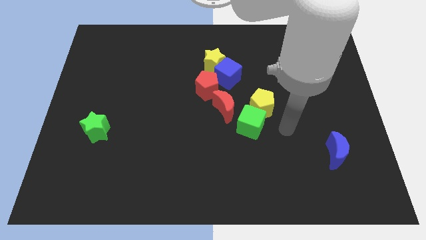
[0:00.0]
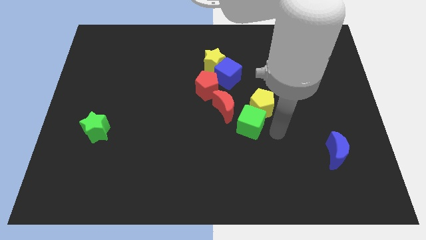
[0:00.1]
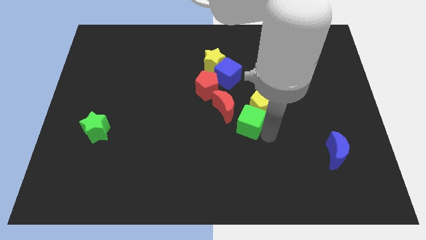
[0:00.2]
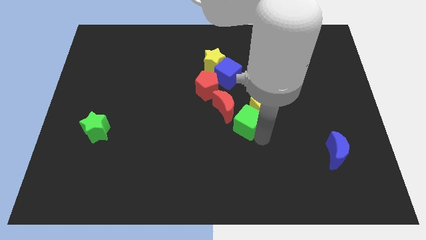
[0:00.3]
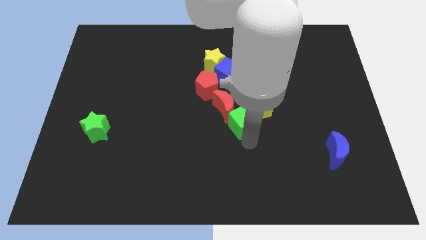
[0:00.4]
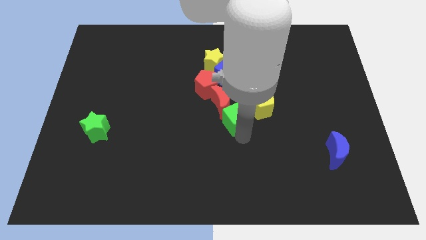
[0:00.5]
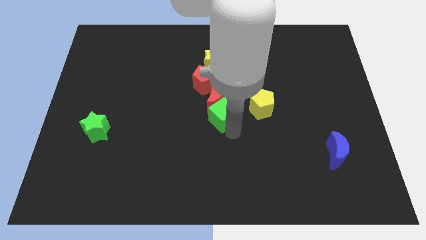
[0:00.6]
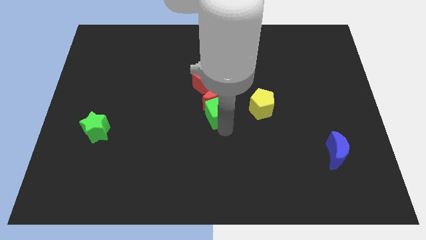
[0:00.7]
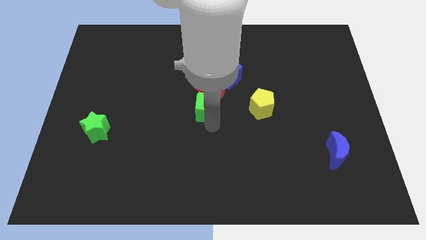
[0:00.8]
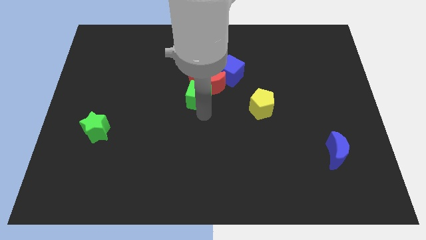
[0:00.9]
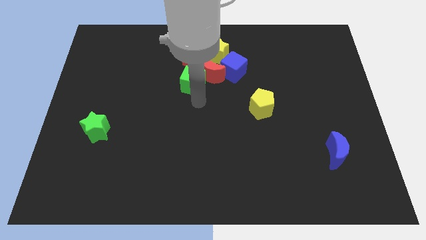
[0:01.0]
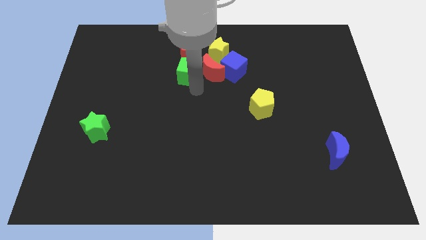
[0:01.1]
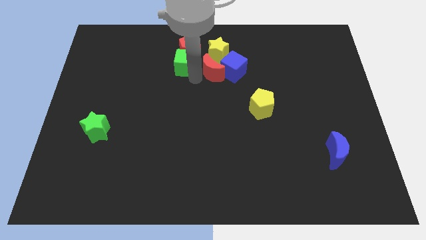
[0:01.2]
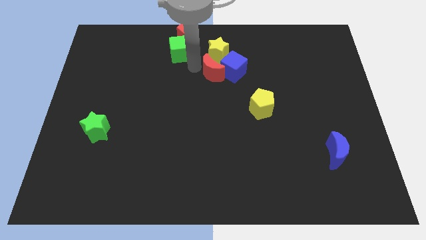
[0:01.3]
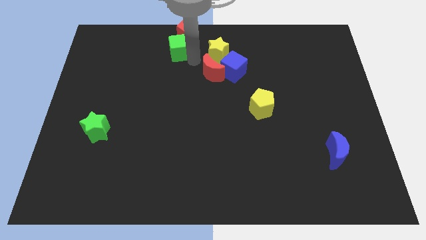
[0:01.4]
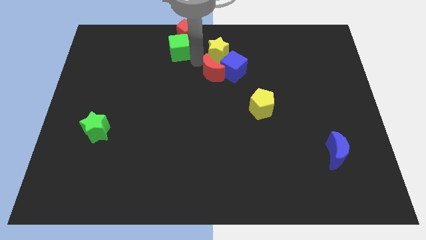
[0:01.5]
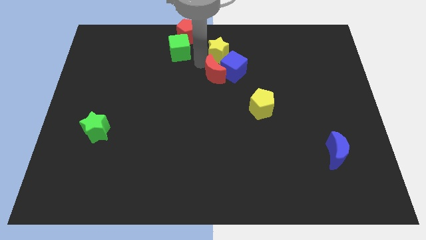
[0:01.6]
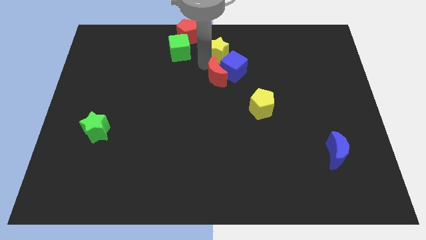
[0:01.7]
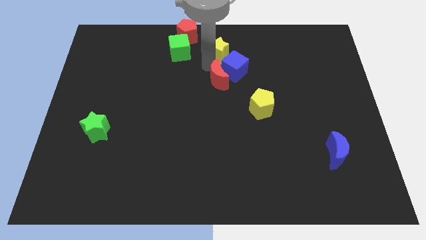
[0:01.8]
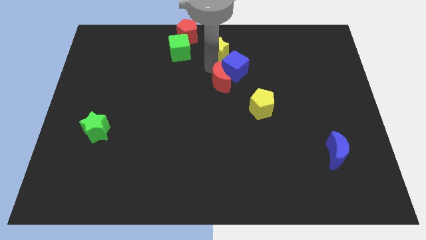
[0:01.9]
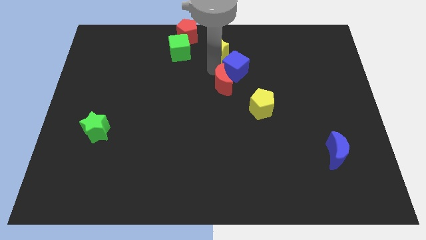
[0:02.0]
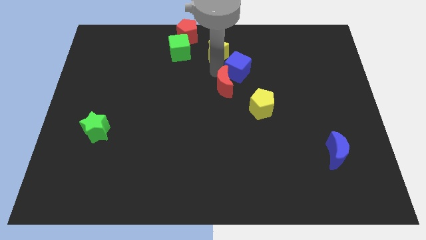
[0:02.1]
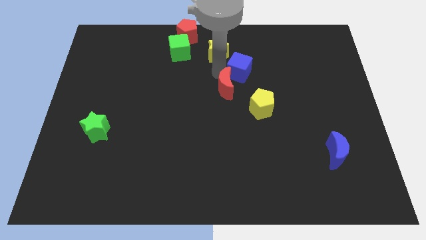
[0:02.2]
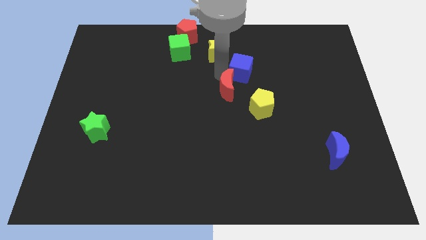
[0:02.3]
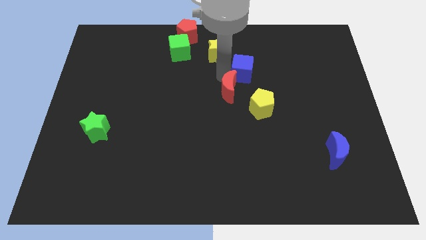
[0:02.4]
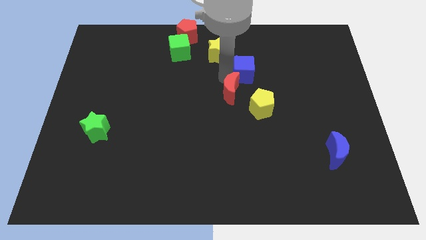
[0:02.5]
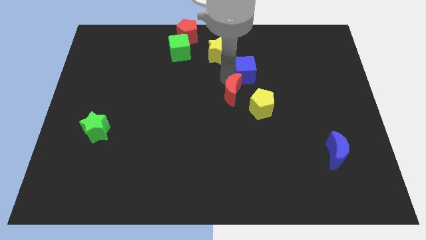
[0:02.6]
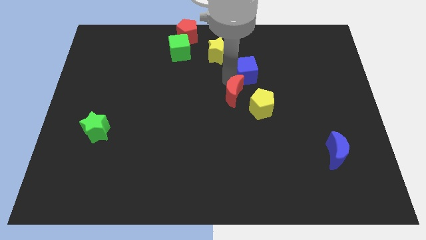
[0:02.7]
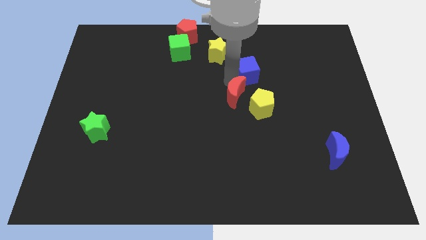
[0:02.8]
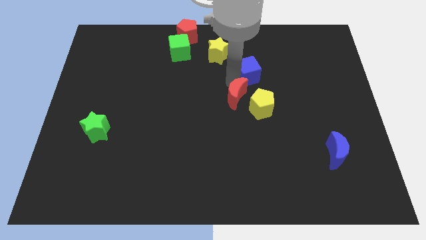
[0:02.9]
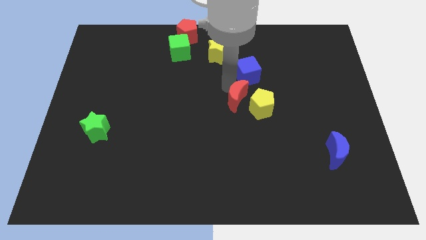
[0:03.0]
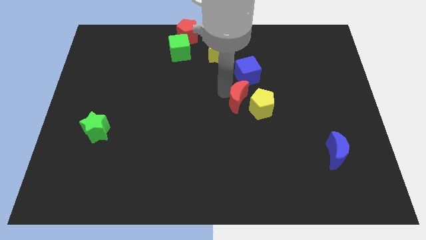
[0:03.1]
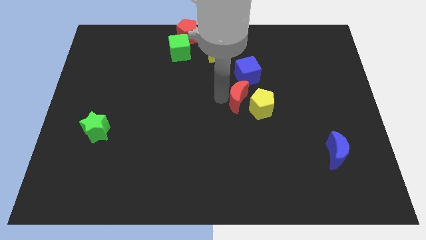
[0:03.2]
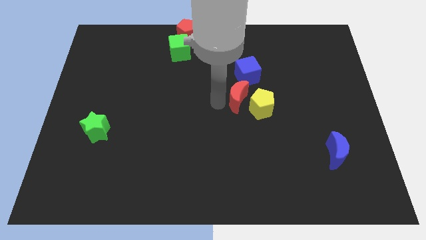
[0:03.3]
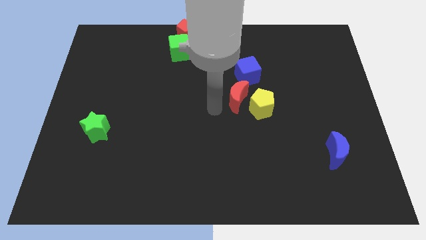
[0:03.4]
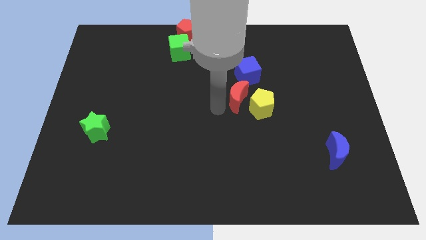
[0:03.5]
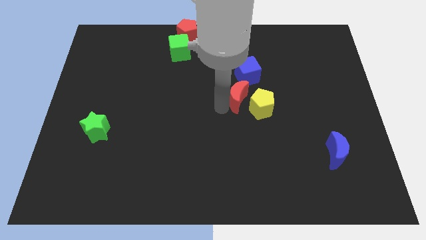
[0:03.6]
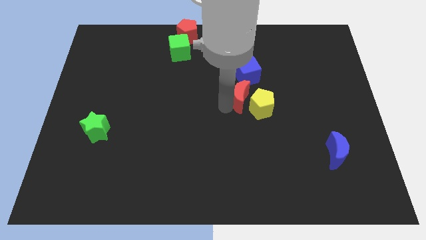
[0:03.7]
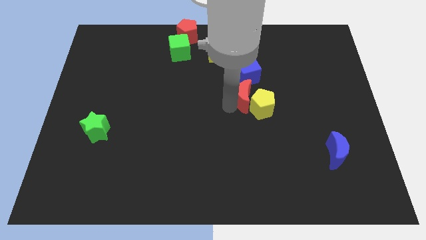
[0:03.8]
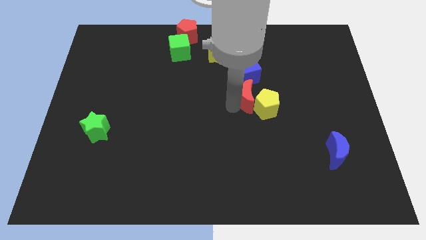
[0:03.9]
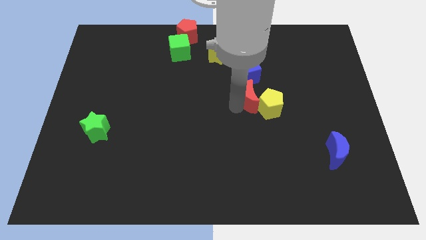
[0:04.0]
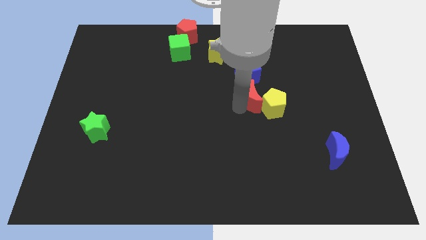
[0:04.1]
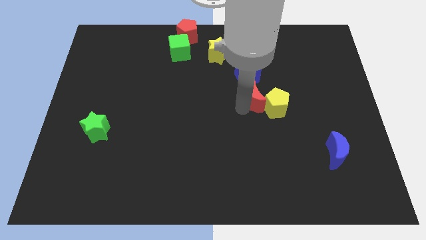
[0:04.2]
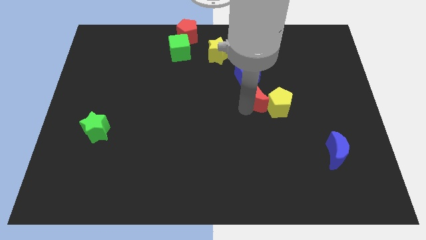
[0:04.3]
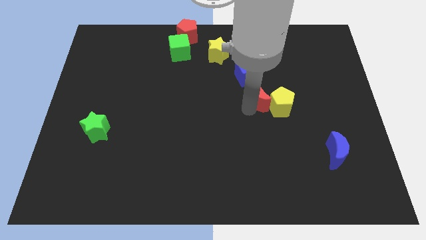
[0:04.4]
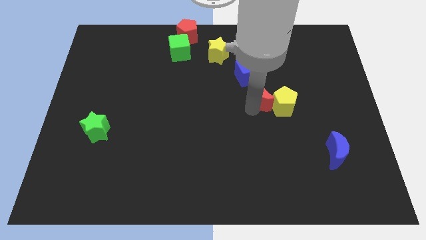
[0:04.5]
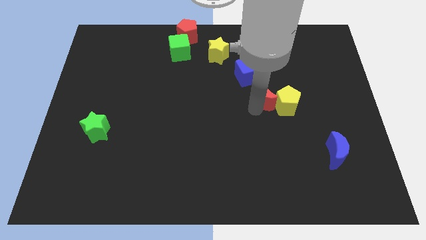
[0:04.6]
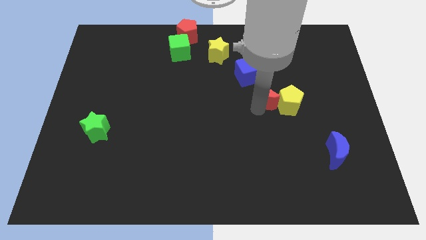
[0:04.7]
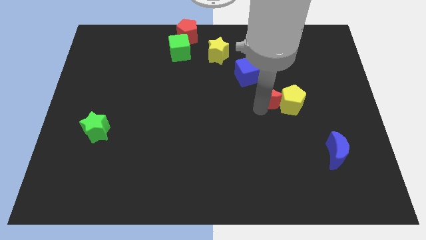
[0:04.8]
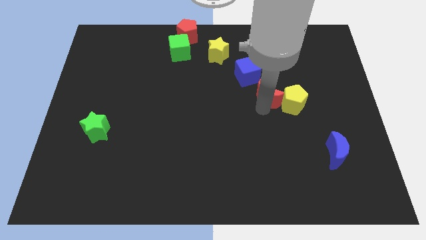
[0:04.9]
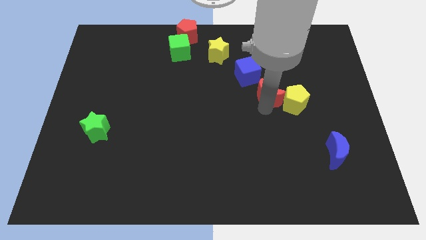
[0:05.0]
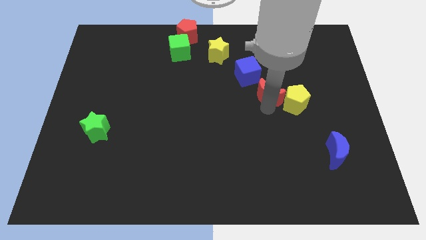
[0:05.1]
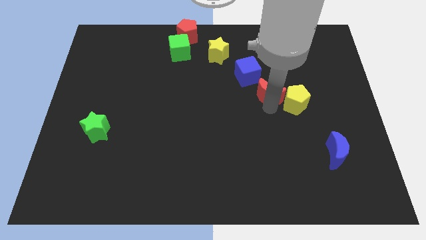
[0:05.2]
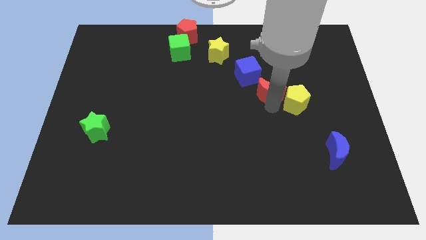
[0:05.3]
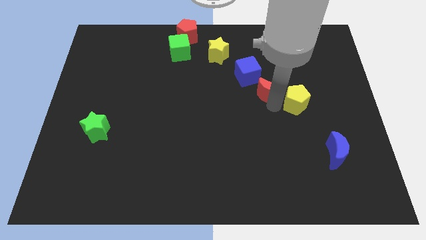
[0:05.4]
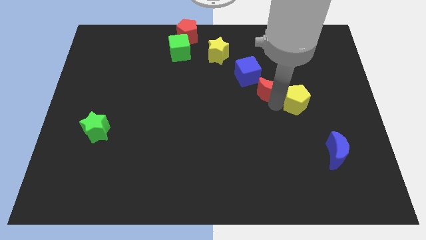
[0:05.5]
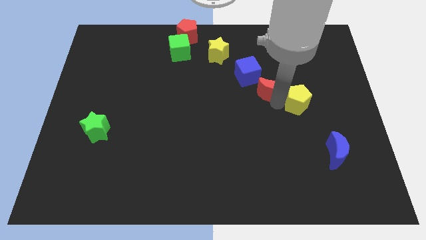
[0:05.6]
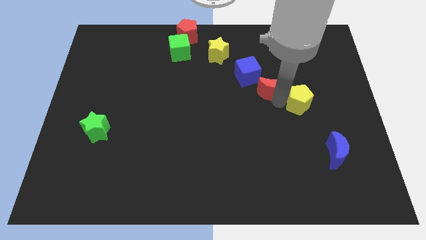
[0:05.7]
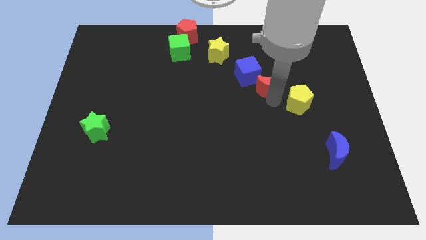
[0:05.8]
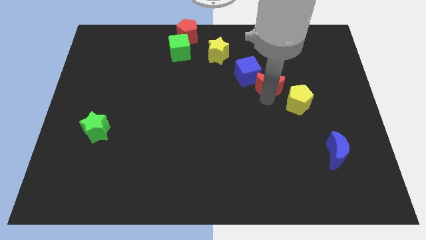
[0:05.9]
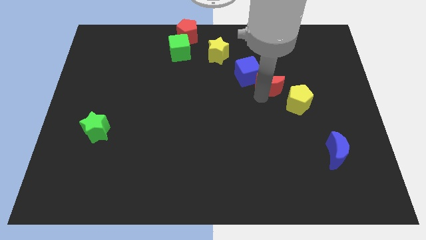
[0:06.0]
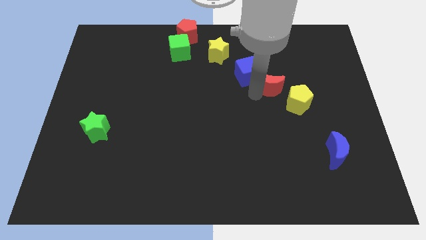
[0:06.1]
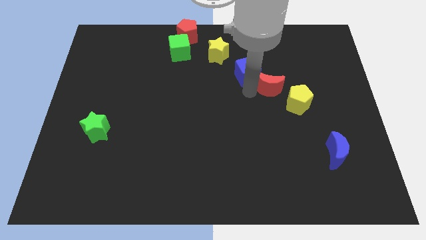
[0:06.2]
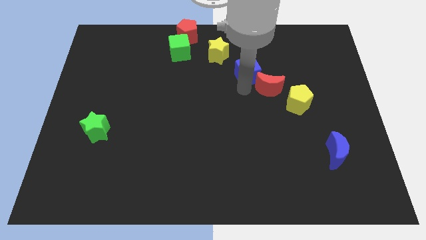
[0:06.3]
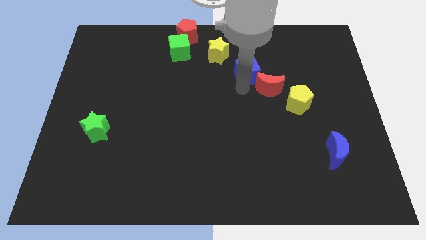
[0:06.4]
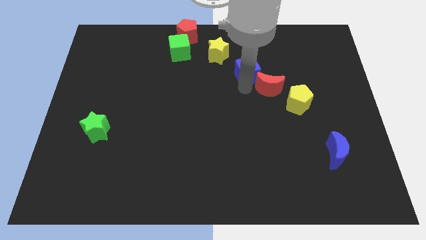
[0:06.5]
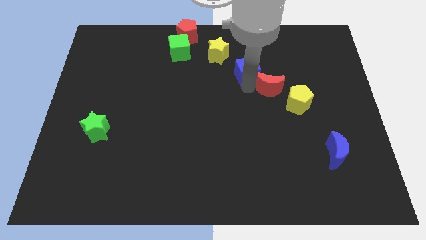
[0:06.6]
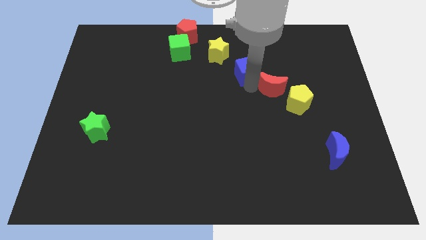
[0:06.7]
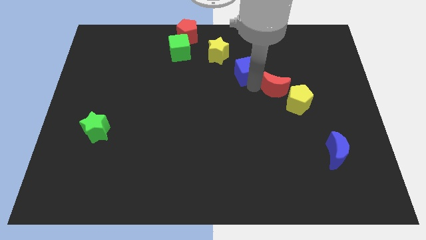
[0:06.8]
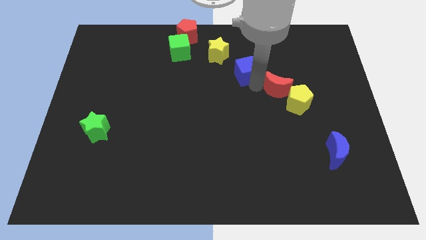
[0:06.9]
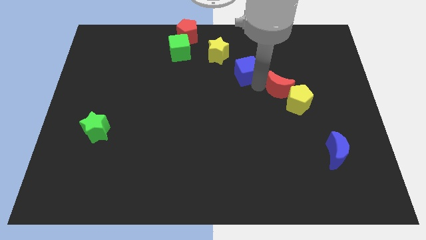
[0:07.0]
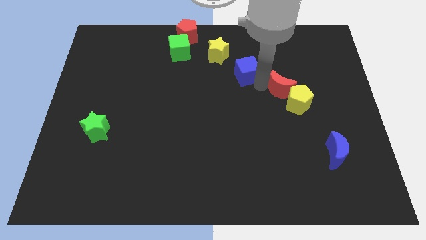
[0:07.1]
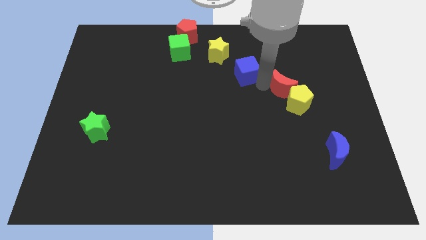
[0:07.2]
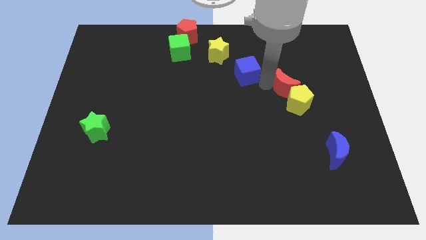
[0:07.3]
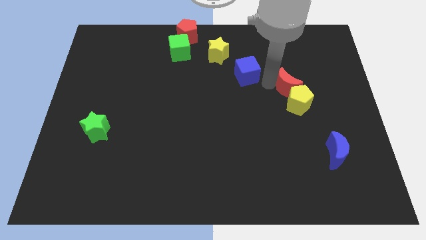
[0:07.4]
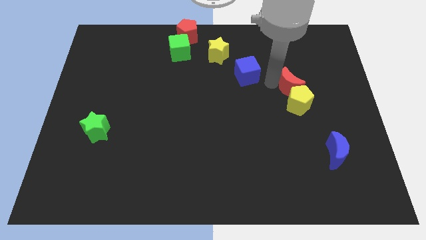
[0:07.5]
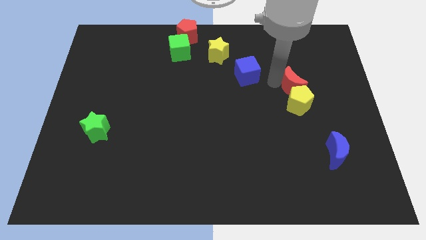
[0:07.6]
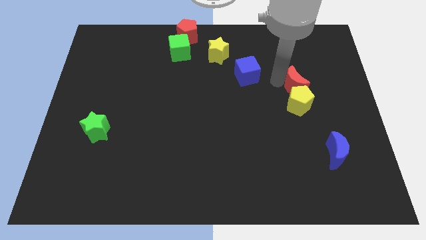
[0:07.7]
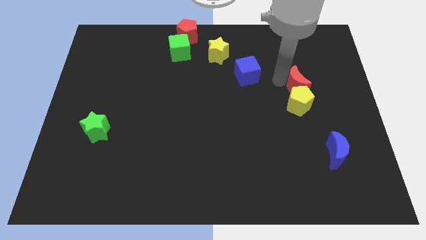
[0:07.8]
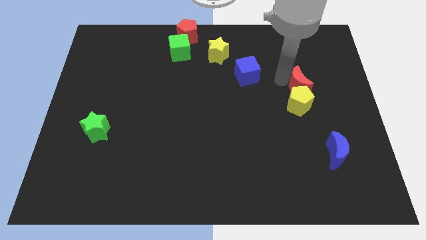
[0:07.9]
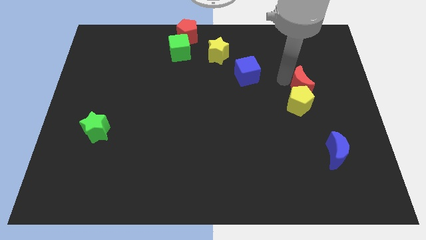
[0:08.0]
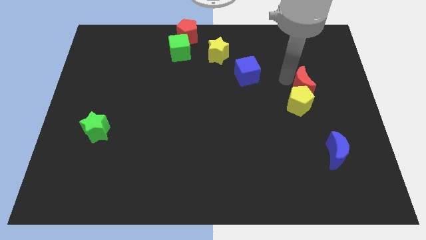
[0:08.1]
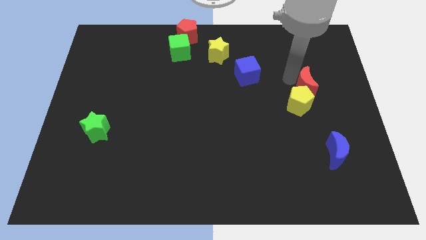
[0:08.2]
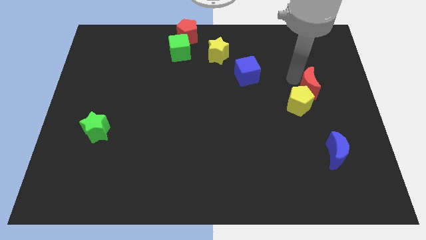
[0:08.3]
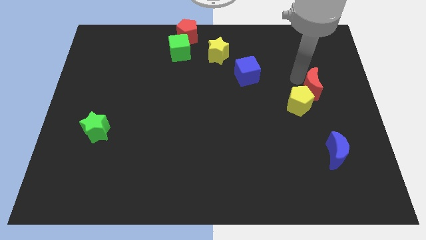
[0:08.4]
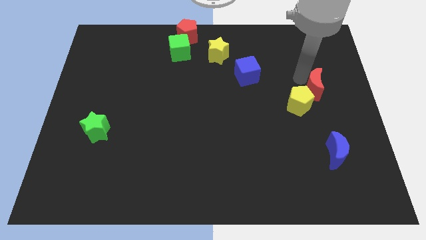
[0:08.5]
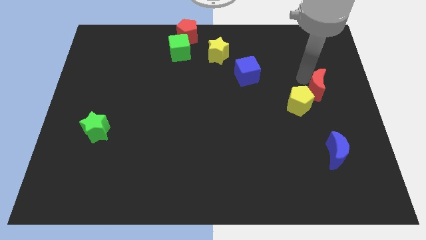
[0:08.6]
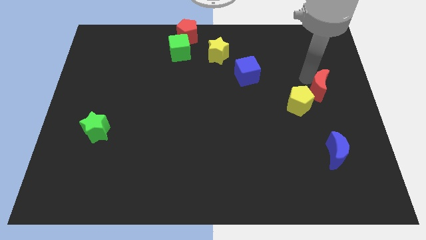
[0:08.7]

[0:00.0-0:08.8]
push the red moon to the right side of the board
